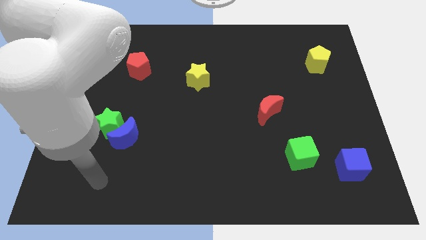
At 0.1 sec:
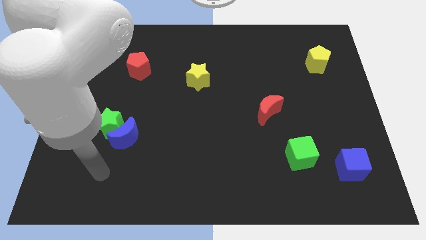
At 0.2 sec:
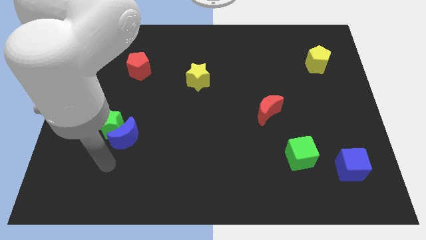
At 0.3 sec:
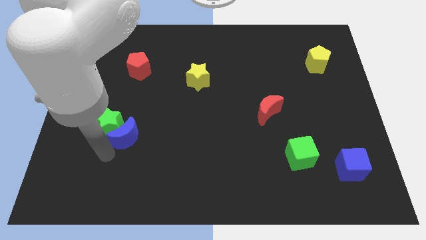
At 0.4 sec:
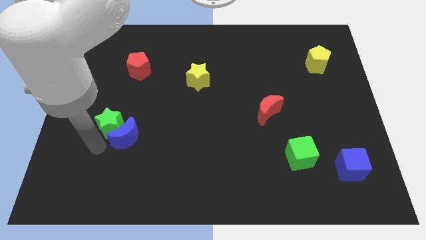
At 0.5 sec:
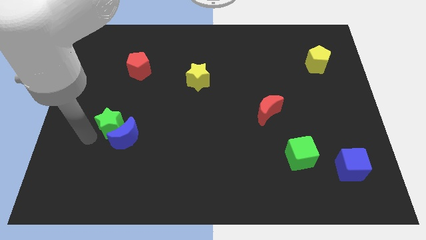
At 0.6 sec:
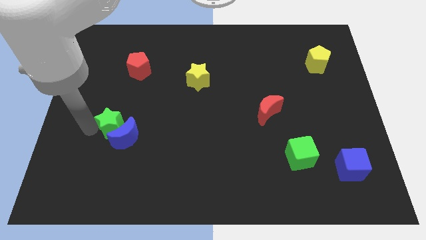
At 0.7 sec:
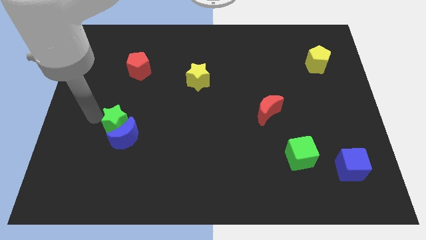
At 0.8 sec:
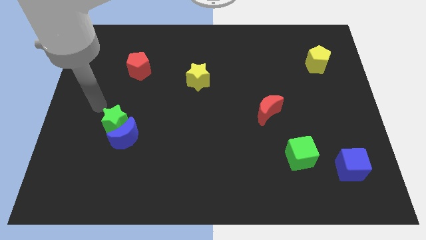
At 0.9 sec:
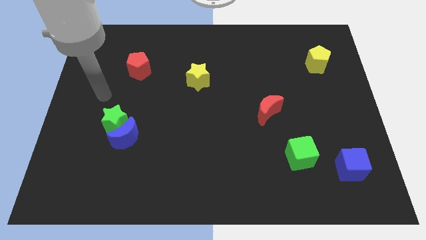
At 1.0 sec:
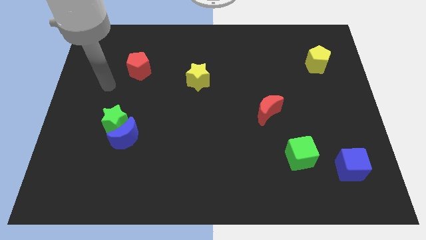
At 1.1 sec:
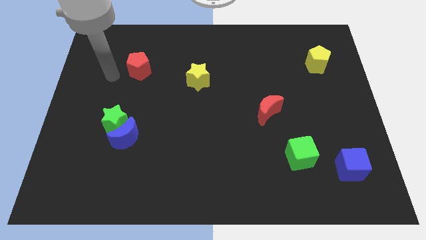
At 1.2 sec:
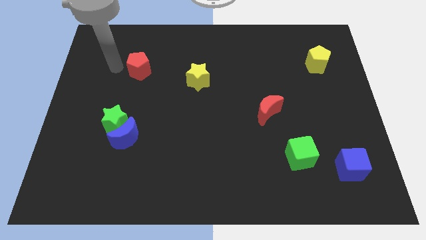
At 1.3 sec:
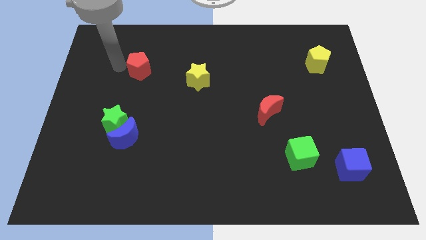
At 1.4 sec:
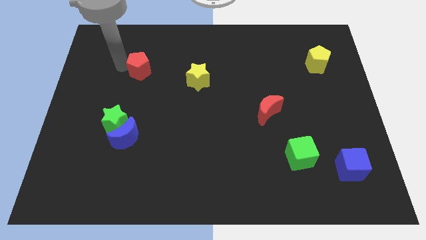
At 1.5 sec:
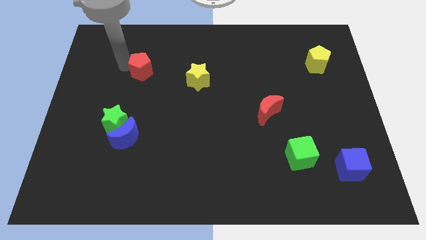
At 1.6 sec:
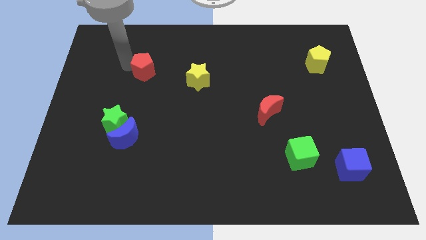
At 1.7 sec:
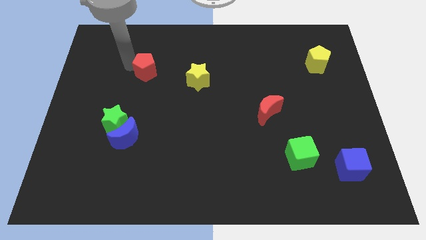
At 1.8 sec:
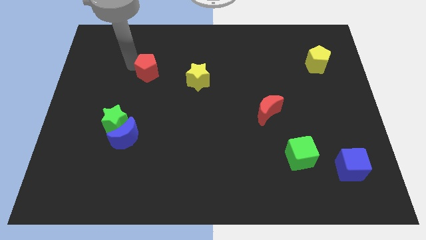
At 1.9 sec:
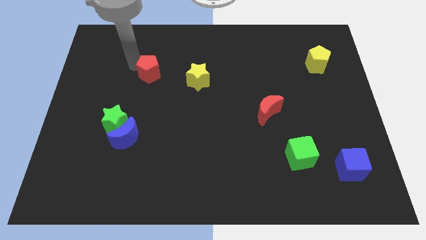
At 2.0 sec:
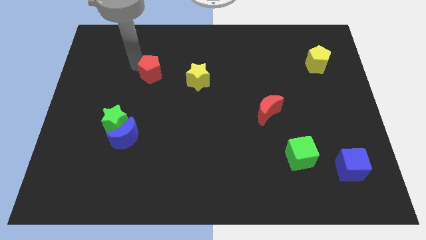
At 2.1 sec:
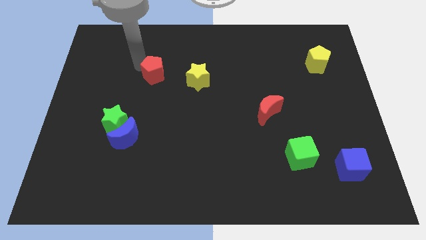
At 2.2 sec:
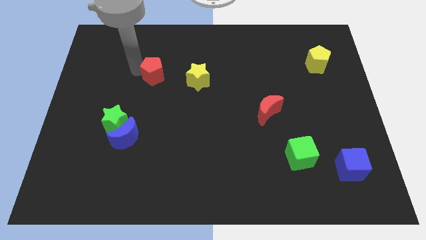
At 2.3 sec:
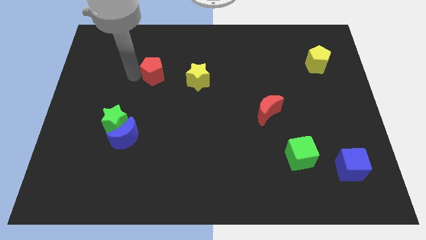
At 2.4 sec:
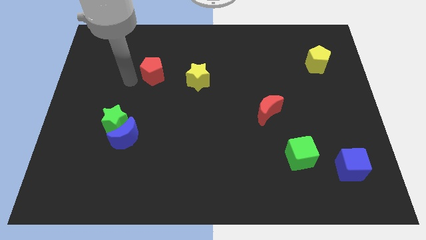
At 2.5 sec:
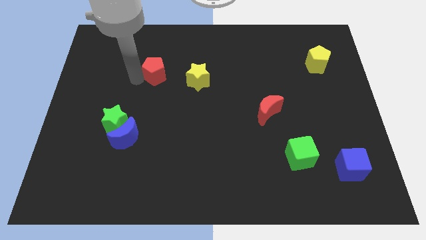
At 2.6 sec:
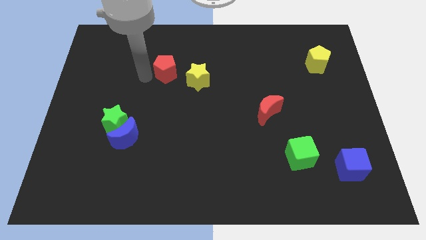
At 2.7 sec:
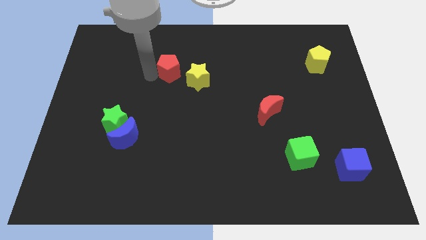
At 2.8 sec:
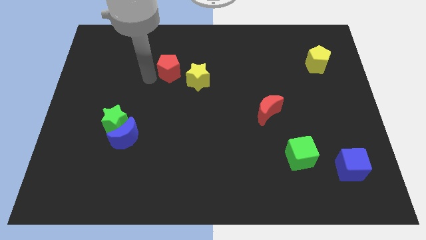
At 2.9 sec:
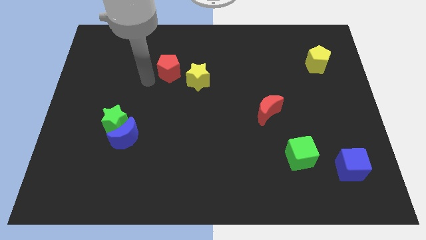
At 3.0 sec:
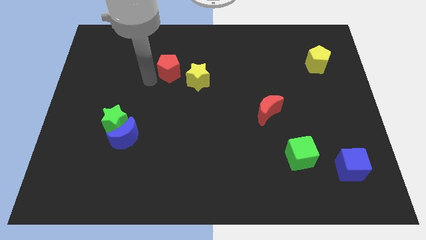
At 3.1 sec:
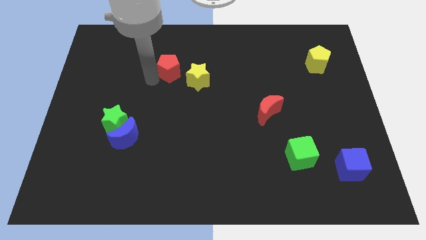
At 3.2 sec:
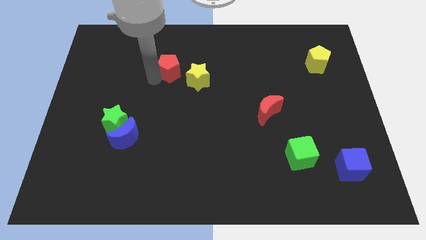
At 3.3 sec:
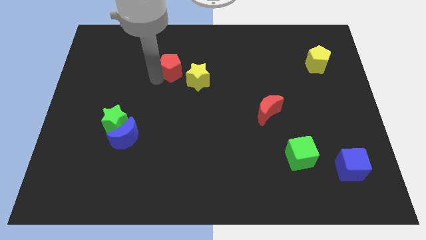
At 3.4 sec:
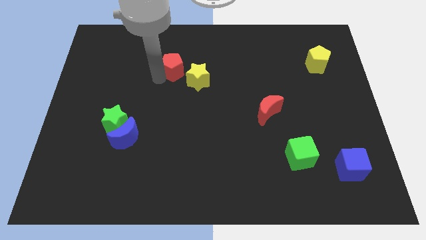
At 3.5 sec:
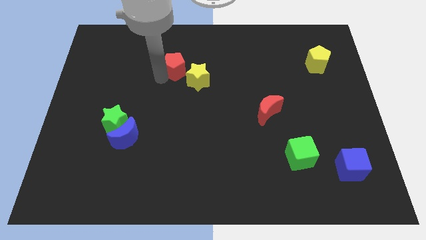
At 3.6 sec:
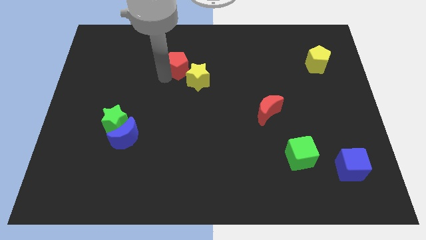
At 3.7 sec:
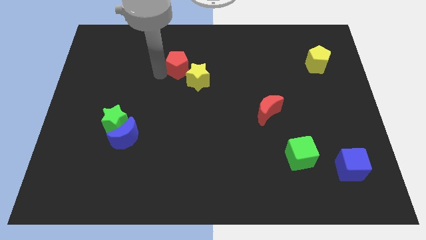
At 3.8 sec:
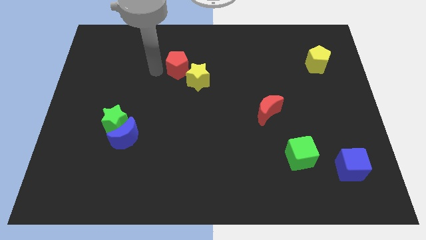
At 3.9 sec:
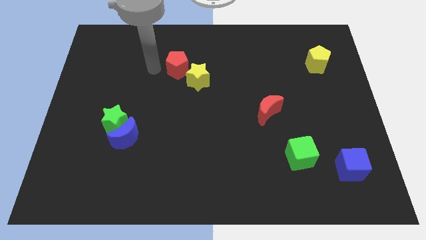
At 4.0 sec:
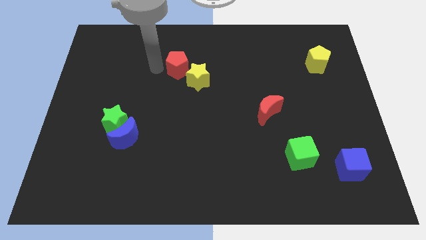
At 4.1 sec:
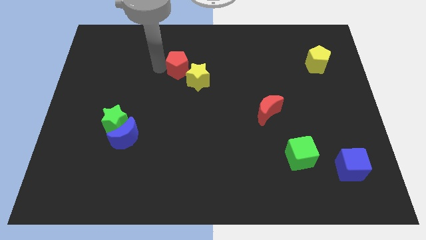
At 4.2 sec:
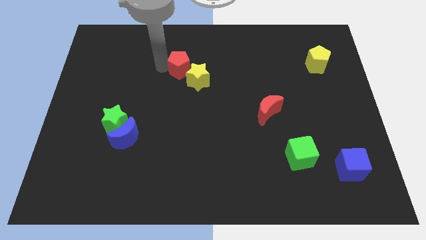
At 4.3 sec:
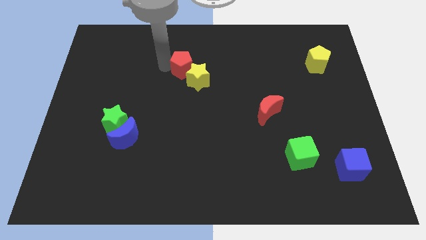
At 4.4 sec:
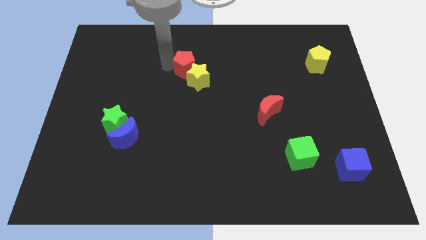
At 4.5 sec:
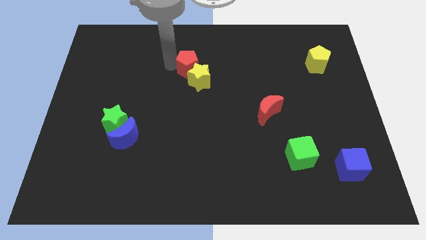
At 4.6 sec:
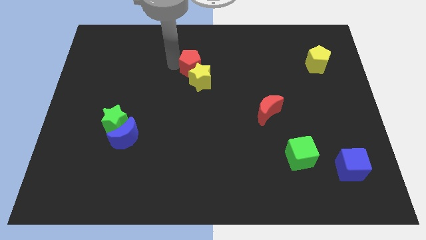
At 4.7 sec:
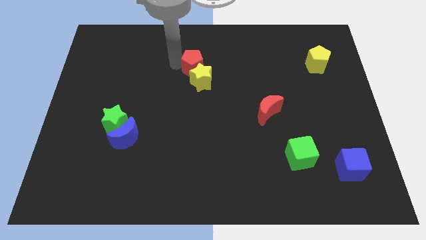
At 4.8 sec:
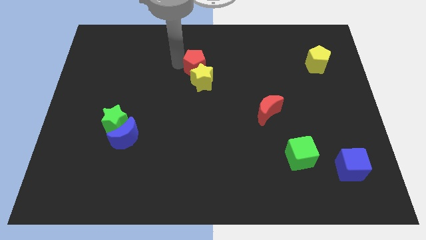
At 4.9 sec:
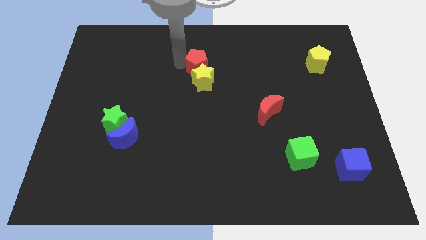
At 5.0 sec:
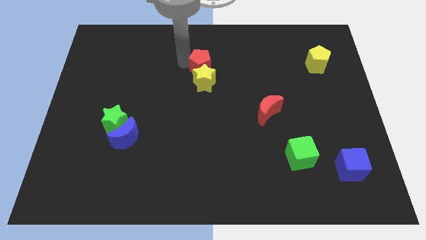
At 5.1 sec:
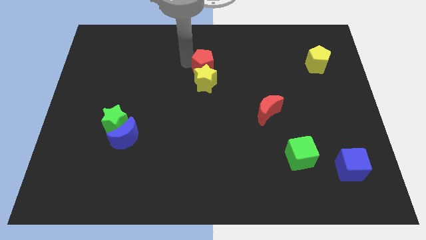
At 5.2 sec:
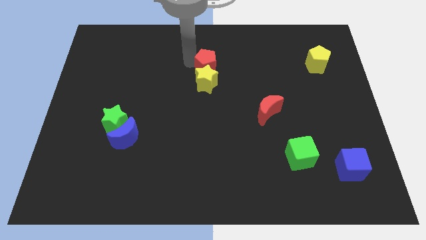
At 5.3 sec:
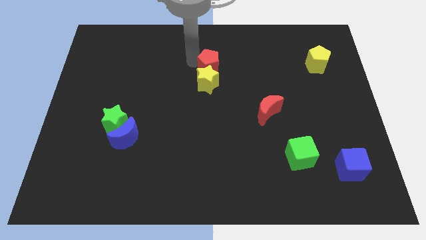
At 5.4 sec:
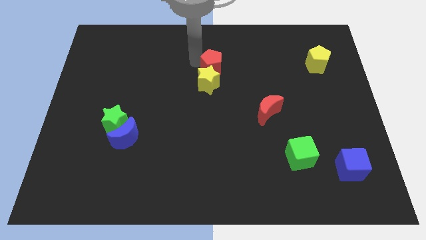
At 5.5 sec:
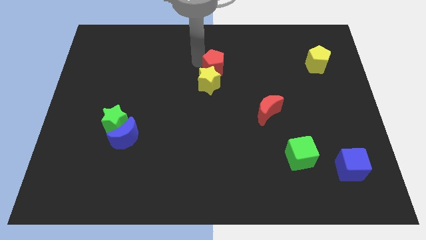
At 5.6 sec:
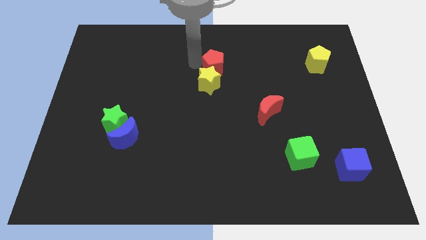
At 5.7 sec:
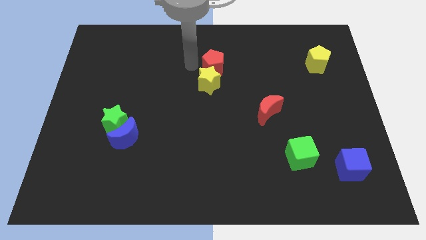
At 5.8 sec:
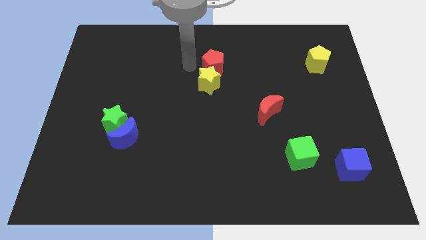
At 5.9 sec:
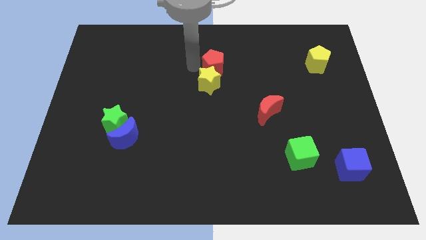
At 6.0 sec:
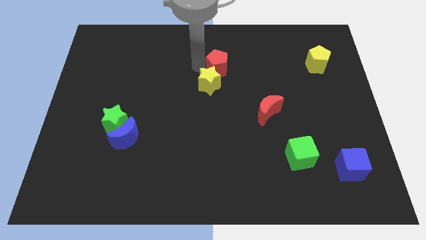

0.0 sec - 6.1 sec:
move the red pentagon right

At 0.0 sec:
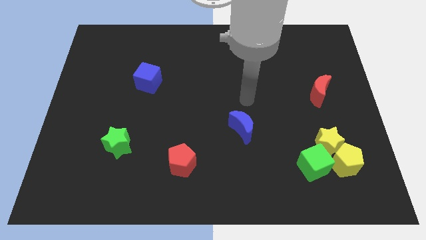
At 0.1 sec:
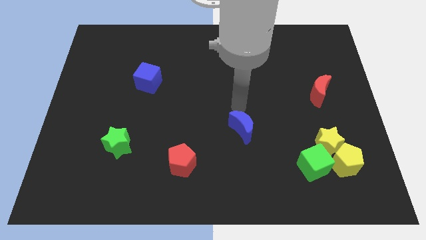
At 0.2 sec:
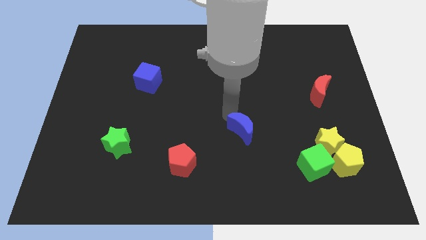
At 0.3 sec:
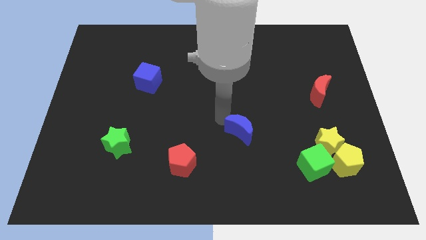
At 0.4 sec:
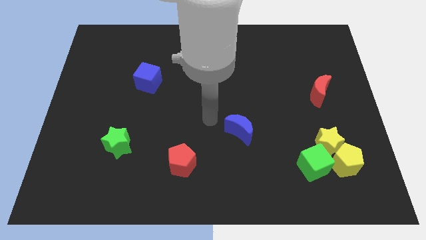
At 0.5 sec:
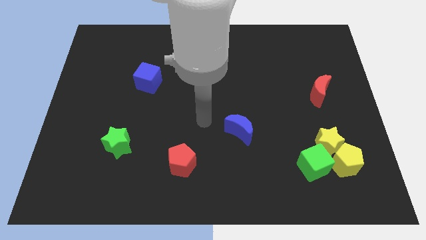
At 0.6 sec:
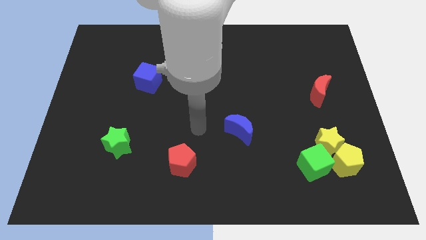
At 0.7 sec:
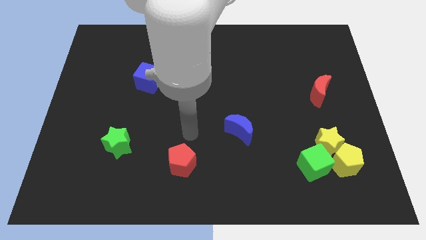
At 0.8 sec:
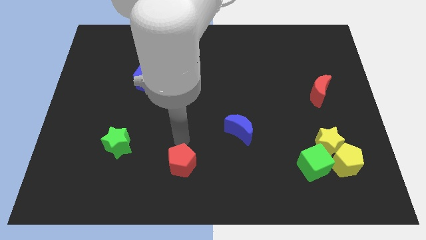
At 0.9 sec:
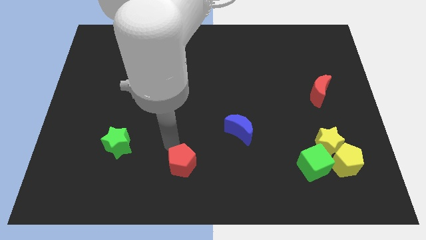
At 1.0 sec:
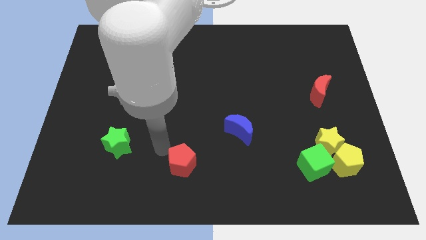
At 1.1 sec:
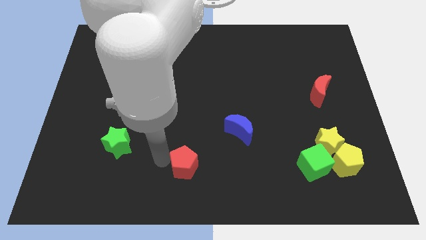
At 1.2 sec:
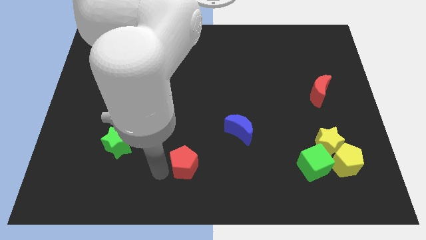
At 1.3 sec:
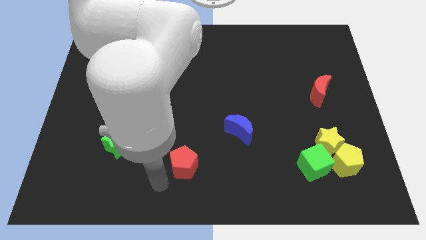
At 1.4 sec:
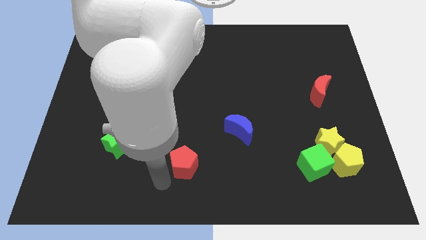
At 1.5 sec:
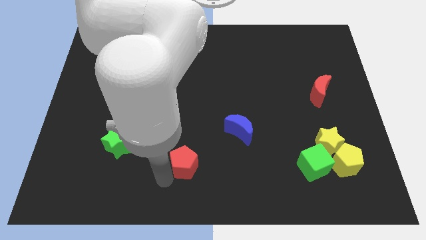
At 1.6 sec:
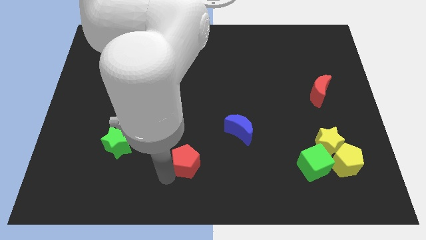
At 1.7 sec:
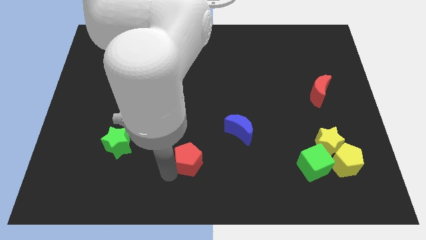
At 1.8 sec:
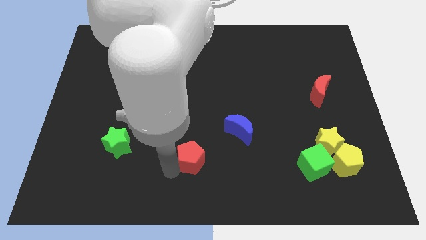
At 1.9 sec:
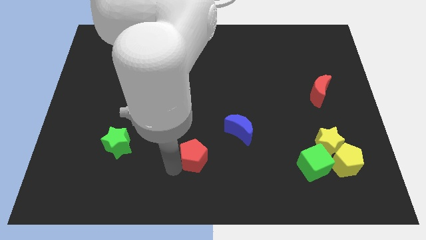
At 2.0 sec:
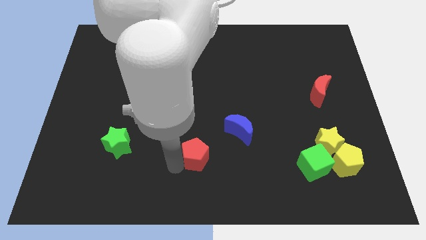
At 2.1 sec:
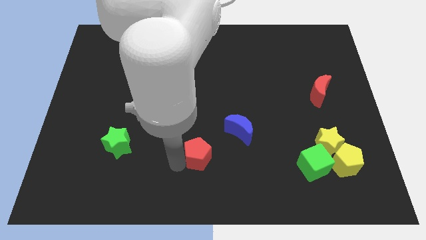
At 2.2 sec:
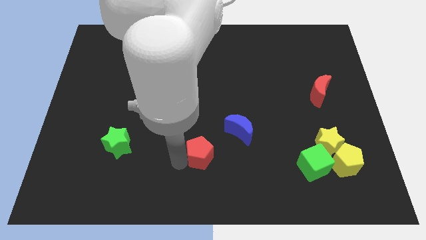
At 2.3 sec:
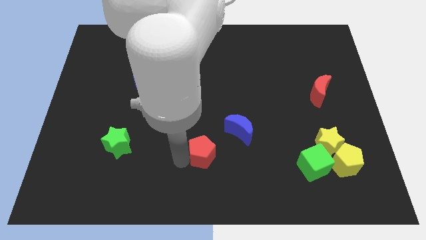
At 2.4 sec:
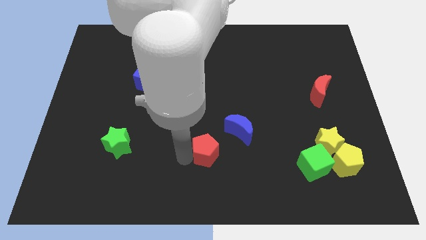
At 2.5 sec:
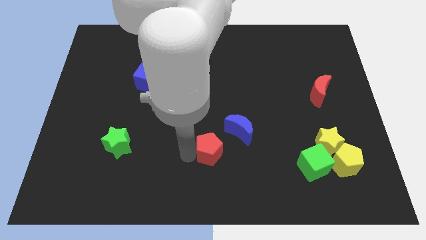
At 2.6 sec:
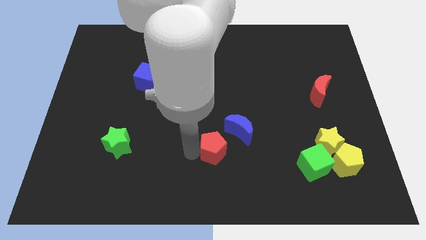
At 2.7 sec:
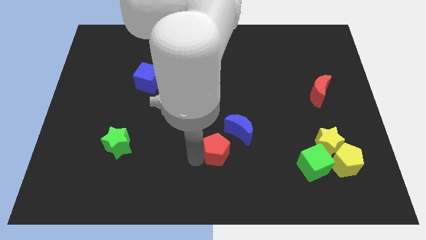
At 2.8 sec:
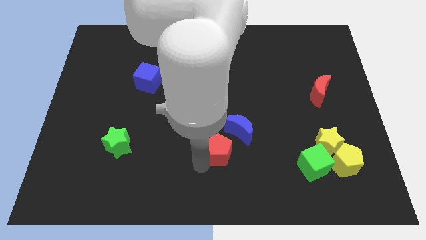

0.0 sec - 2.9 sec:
slide the red pentagon a little up and to the right
